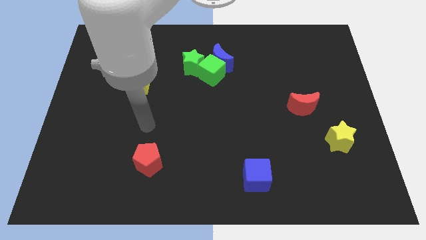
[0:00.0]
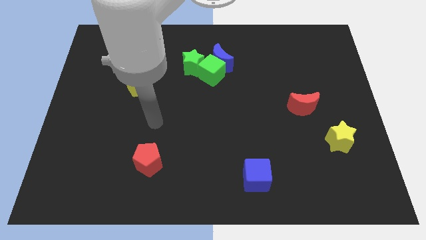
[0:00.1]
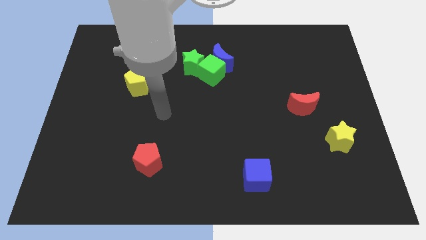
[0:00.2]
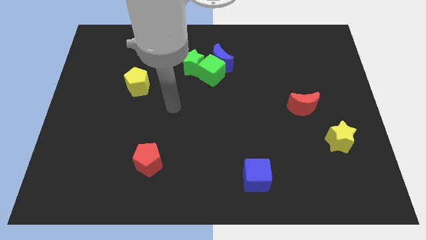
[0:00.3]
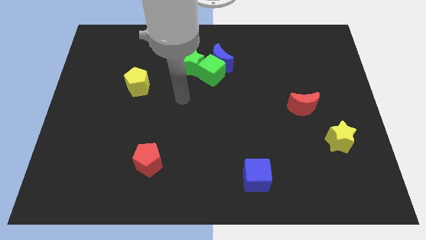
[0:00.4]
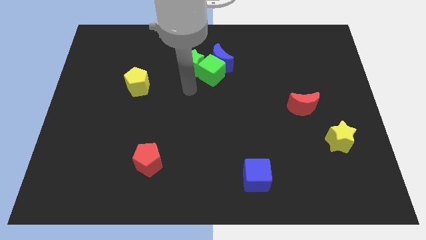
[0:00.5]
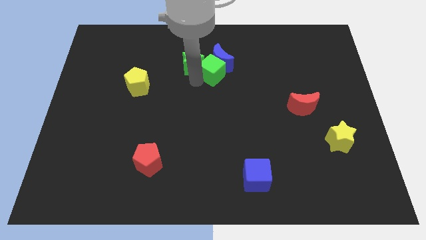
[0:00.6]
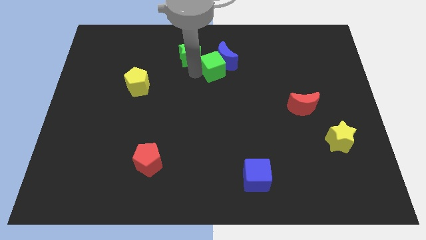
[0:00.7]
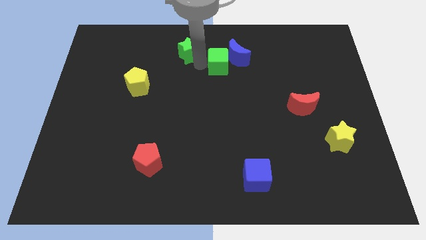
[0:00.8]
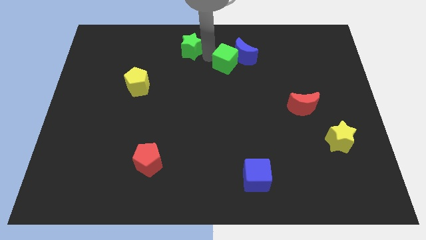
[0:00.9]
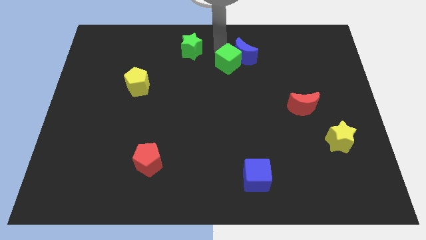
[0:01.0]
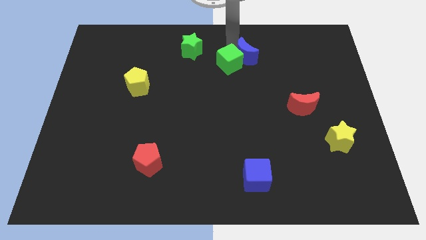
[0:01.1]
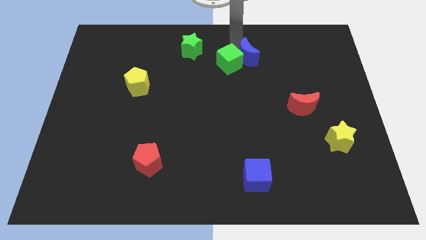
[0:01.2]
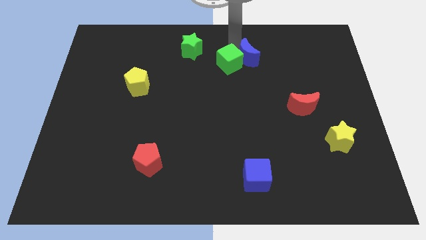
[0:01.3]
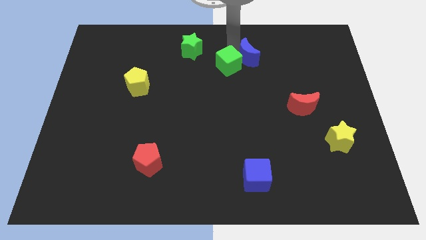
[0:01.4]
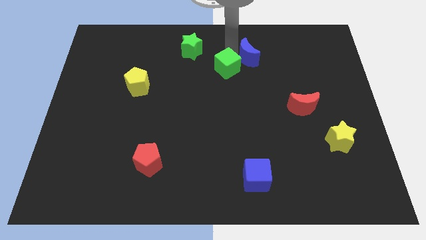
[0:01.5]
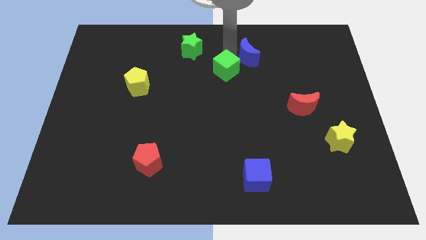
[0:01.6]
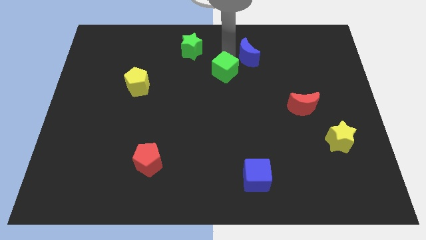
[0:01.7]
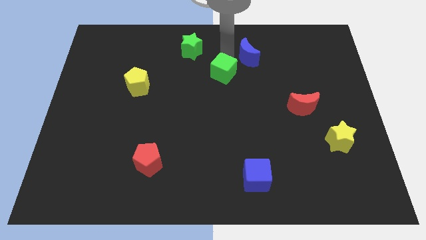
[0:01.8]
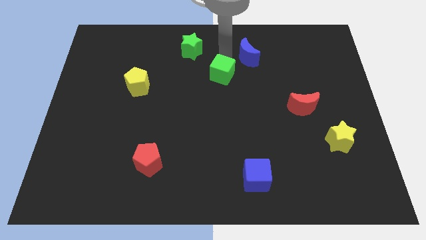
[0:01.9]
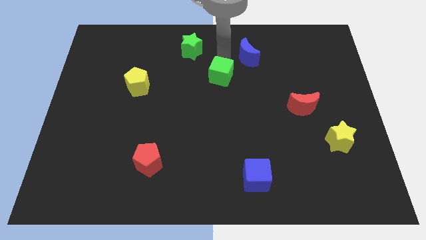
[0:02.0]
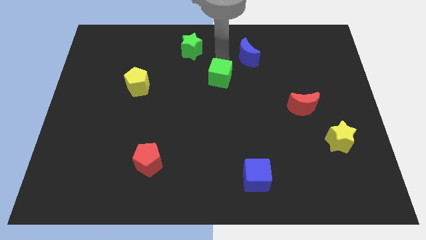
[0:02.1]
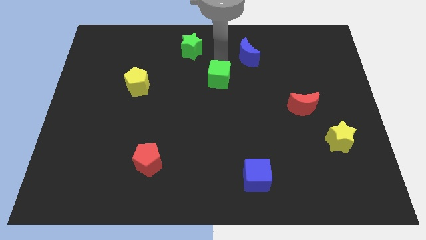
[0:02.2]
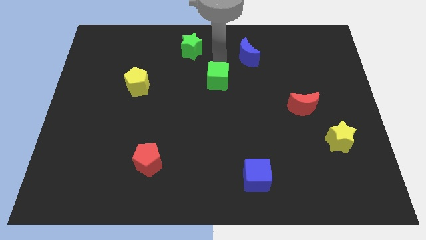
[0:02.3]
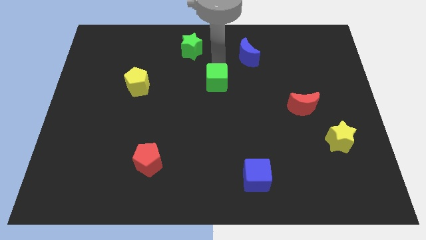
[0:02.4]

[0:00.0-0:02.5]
separate the green cube from the blue moon and green star

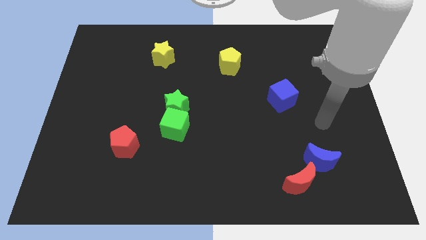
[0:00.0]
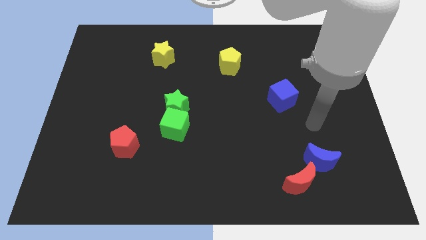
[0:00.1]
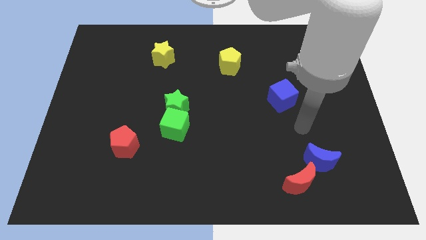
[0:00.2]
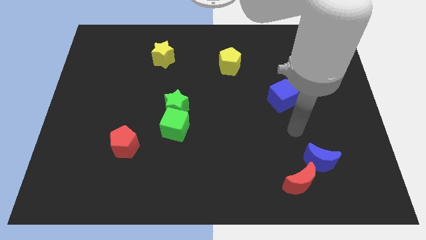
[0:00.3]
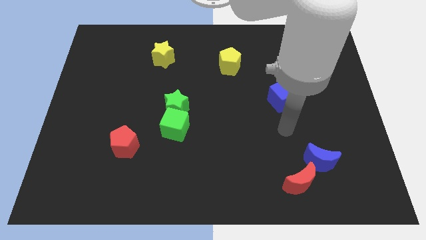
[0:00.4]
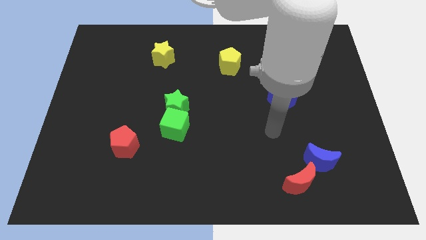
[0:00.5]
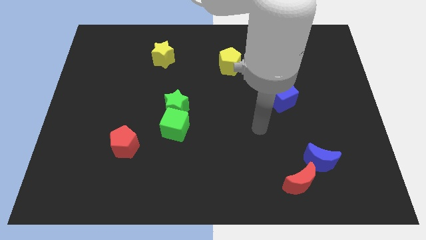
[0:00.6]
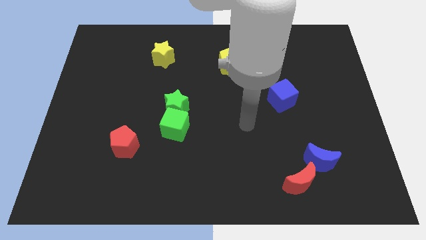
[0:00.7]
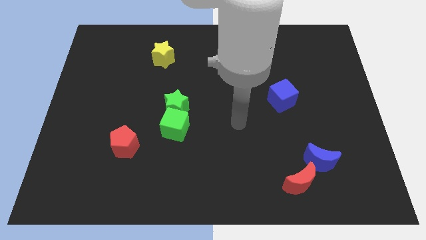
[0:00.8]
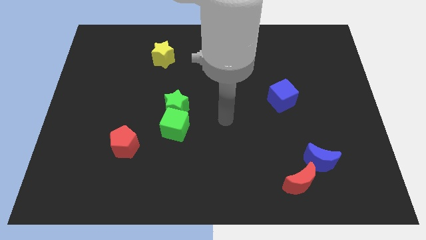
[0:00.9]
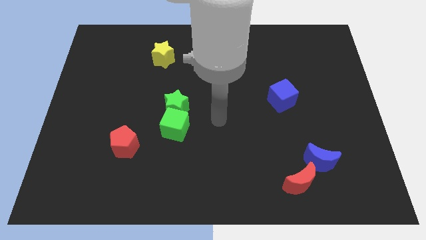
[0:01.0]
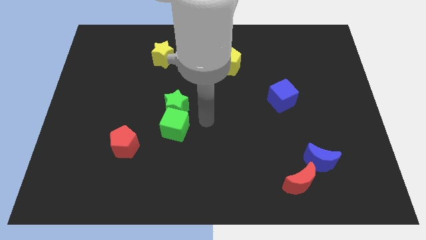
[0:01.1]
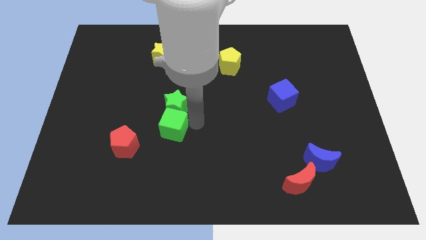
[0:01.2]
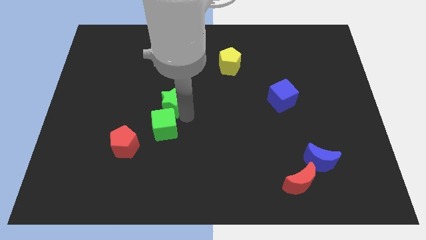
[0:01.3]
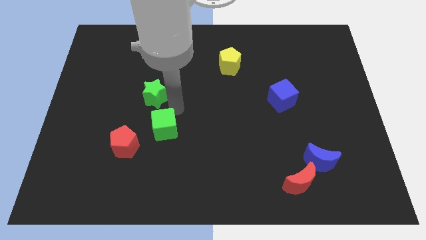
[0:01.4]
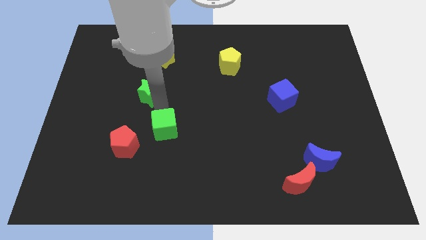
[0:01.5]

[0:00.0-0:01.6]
pull the green cube apart from the green star

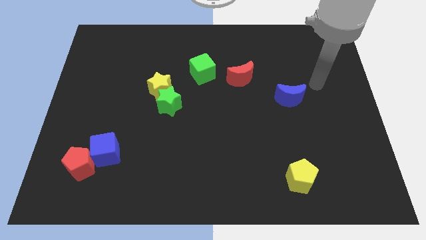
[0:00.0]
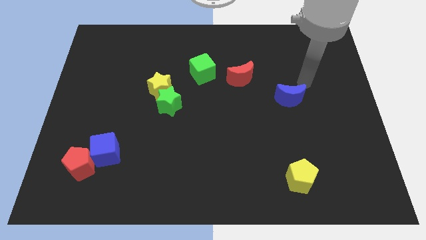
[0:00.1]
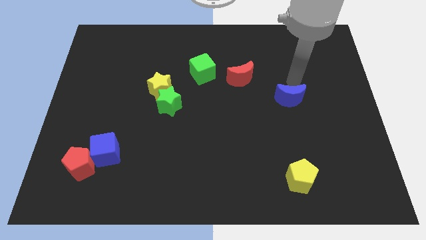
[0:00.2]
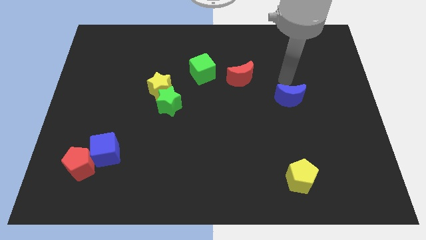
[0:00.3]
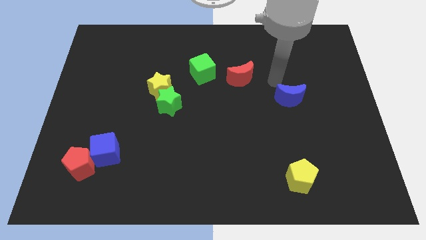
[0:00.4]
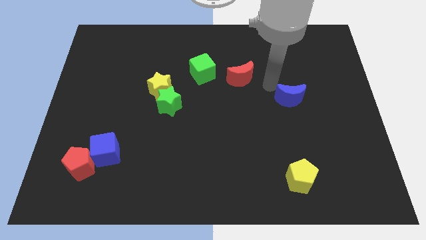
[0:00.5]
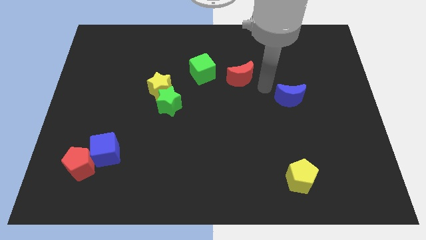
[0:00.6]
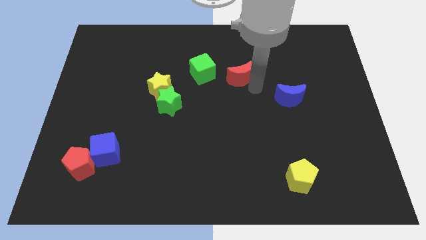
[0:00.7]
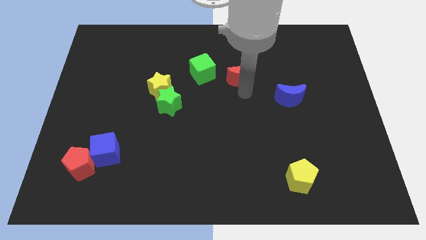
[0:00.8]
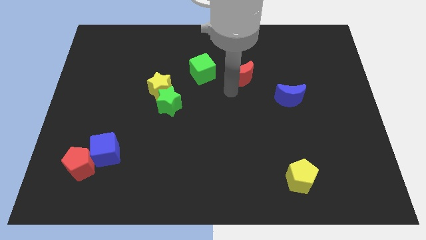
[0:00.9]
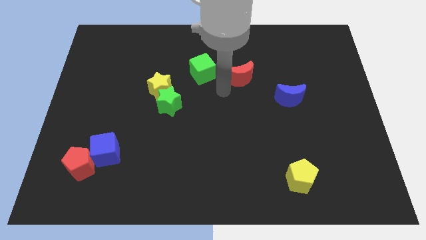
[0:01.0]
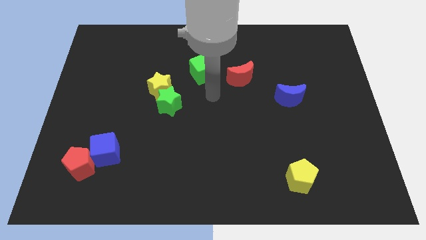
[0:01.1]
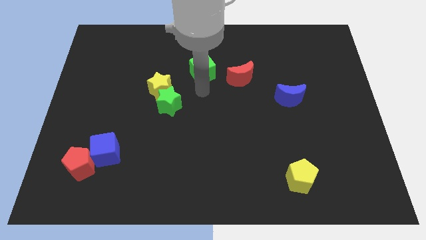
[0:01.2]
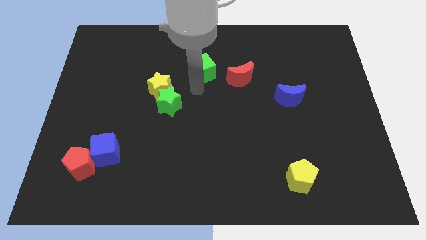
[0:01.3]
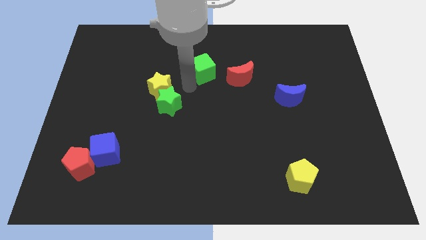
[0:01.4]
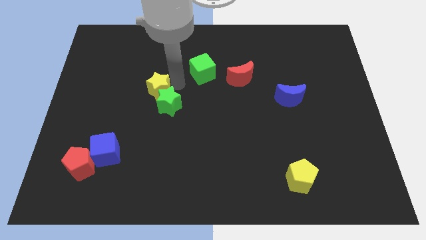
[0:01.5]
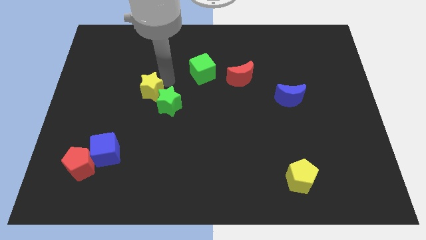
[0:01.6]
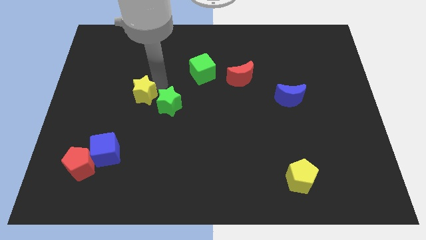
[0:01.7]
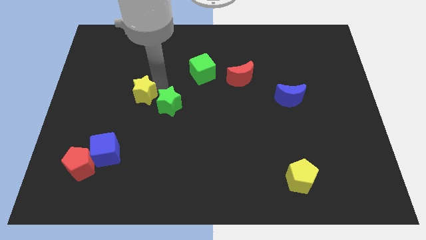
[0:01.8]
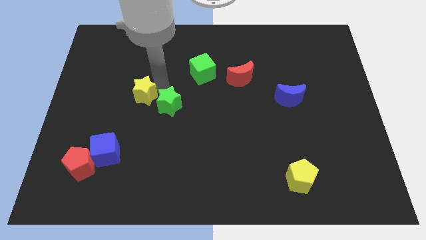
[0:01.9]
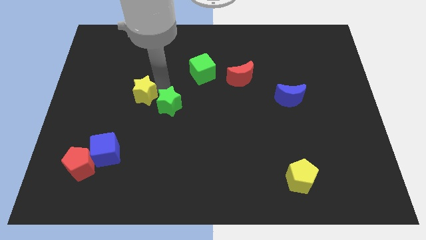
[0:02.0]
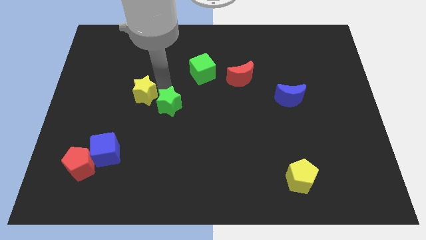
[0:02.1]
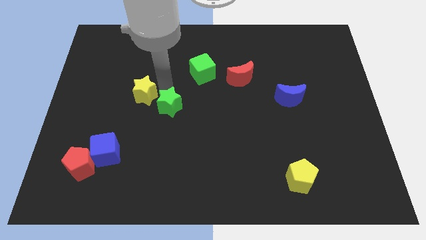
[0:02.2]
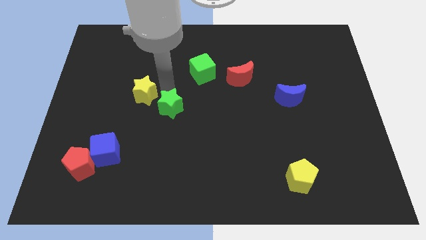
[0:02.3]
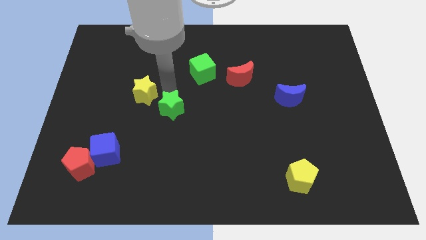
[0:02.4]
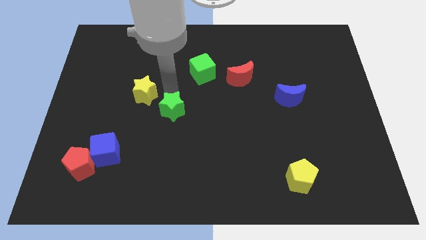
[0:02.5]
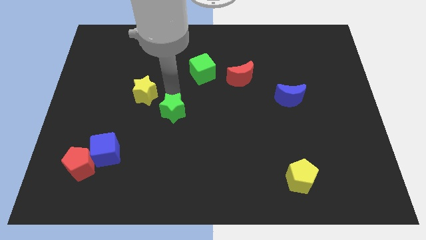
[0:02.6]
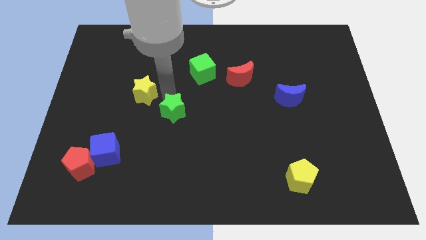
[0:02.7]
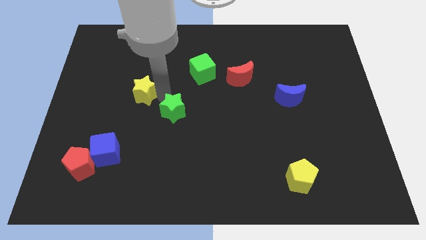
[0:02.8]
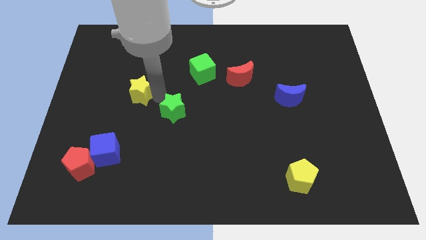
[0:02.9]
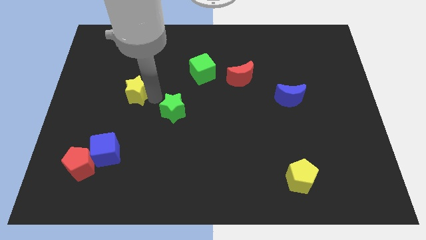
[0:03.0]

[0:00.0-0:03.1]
pull the green star apart from the yellow star

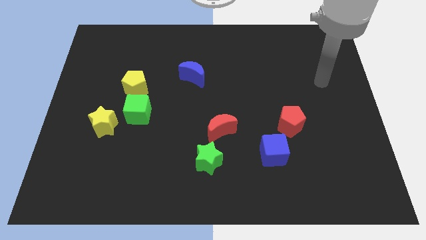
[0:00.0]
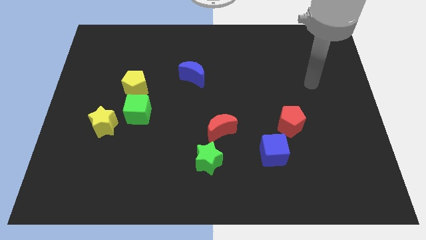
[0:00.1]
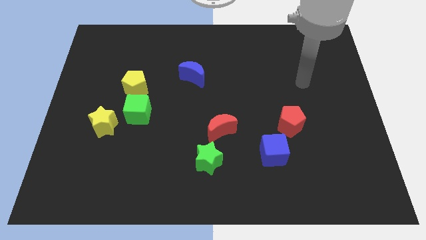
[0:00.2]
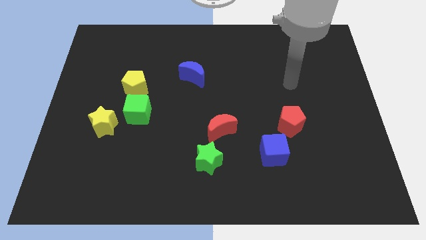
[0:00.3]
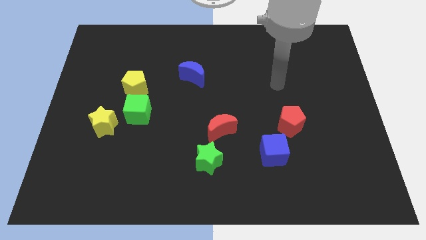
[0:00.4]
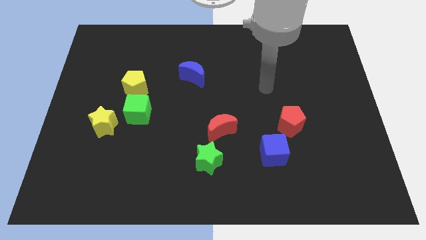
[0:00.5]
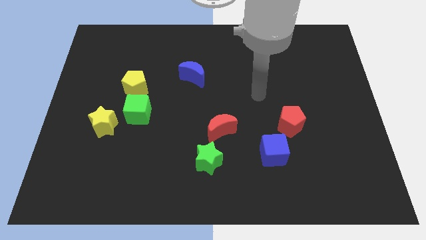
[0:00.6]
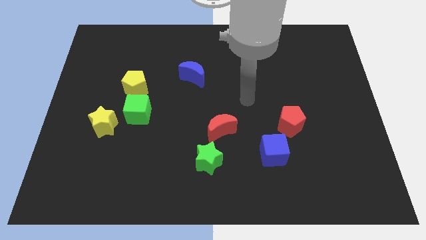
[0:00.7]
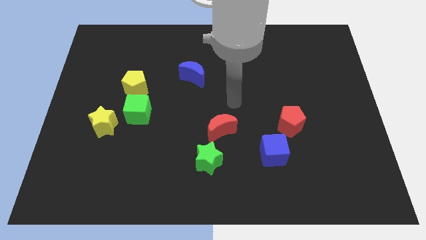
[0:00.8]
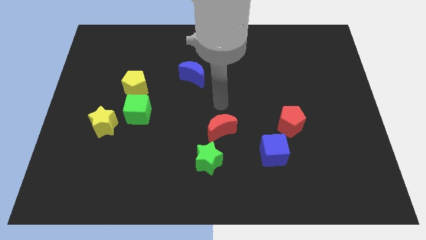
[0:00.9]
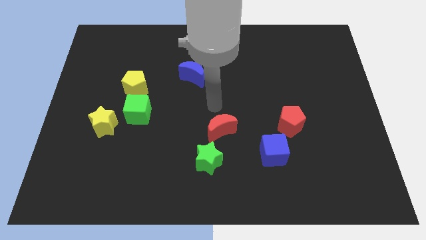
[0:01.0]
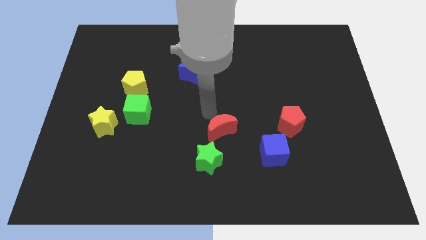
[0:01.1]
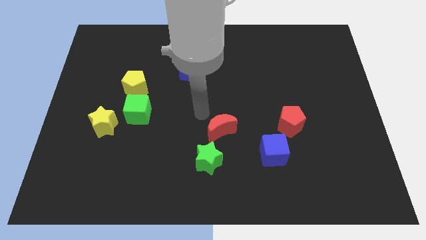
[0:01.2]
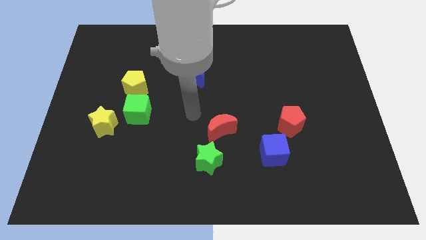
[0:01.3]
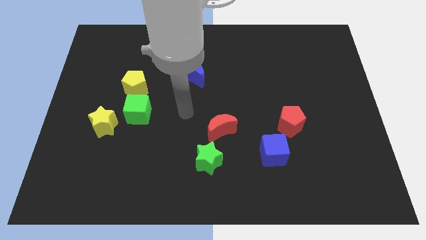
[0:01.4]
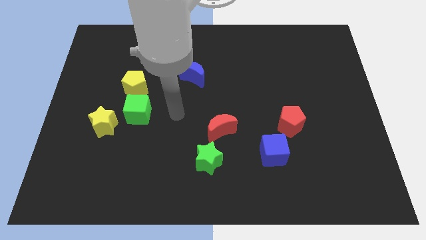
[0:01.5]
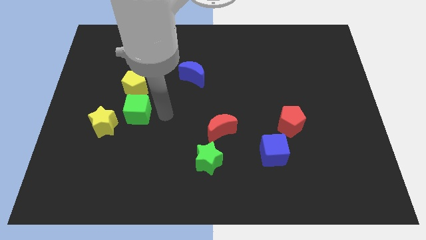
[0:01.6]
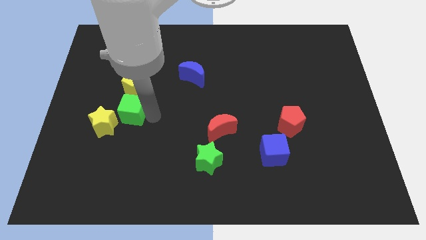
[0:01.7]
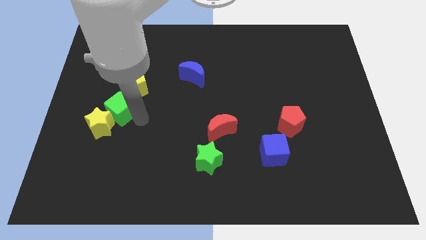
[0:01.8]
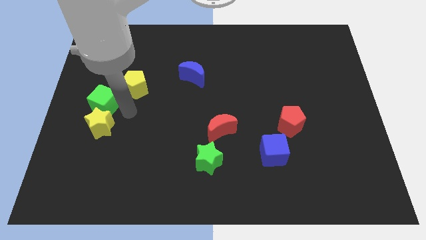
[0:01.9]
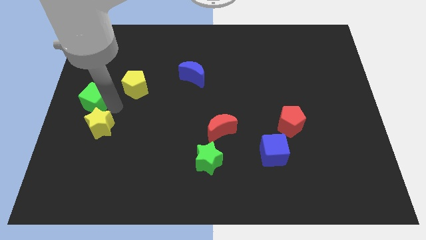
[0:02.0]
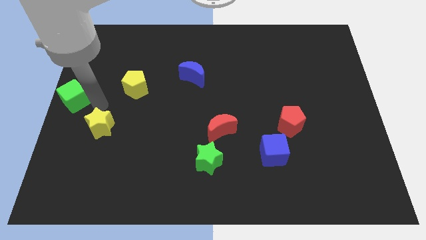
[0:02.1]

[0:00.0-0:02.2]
pull the yellow star apart from the green cube
